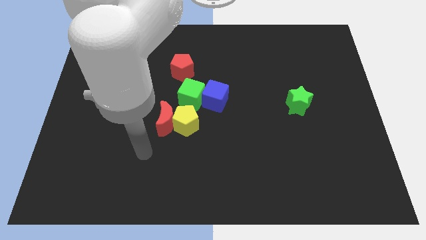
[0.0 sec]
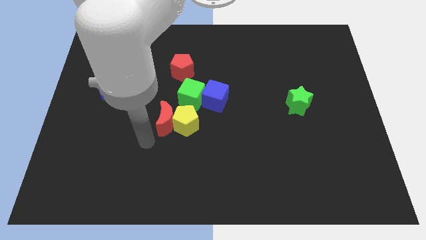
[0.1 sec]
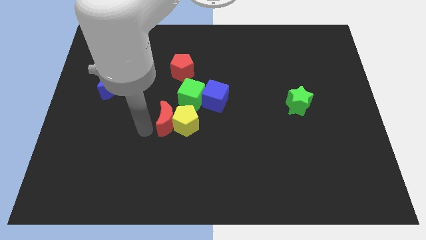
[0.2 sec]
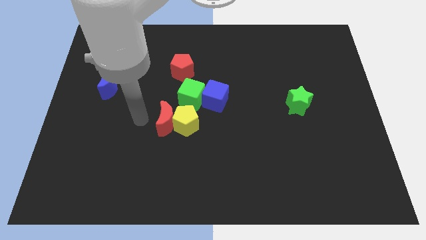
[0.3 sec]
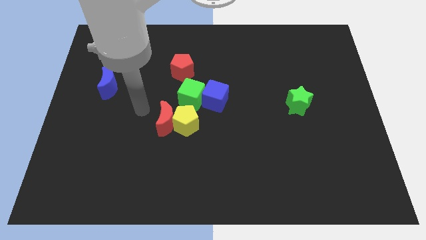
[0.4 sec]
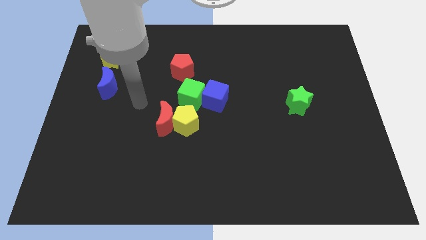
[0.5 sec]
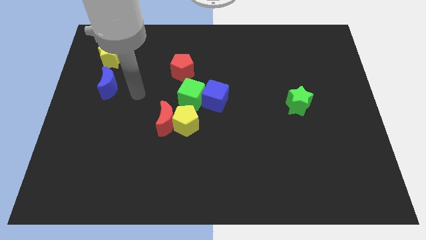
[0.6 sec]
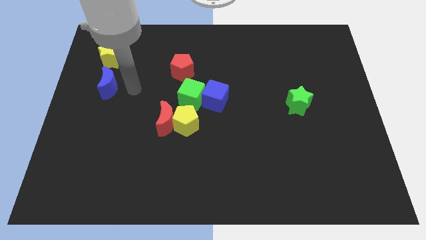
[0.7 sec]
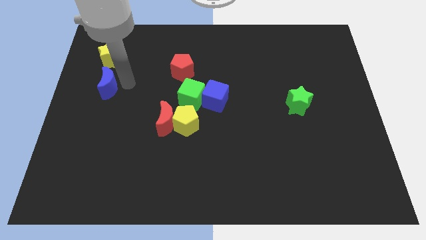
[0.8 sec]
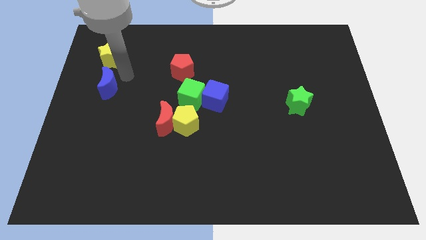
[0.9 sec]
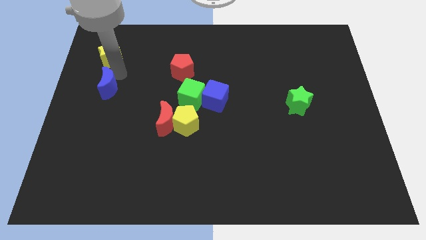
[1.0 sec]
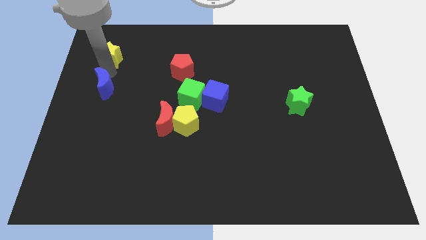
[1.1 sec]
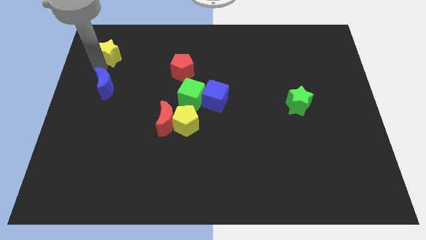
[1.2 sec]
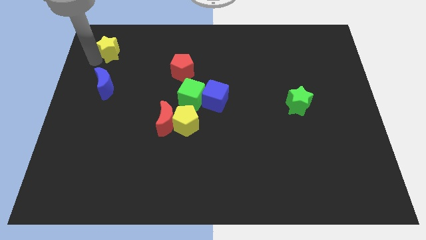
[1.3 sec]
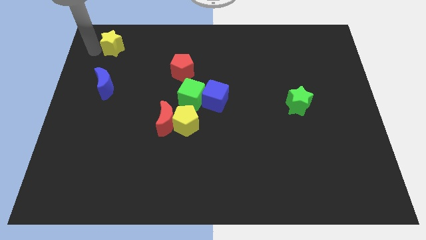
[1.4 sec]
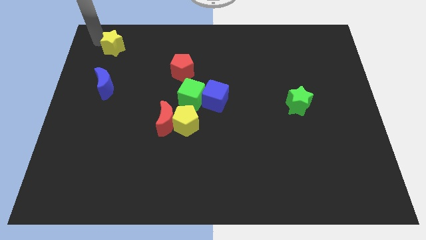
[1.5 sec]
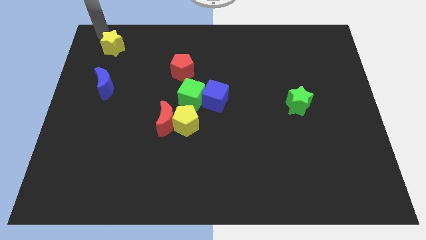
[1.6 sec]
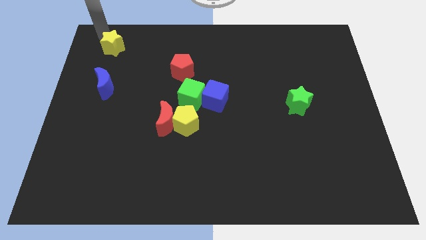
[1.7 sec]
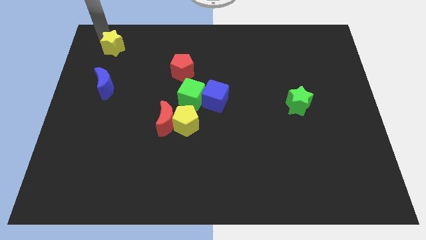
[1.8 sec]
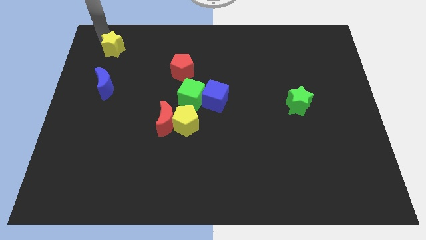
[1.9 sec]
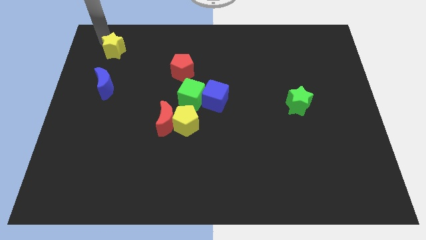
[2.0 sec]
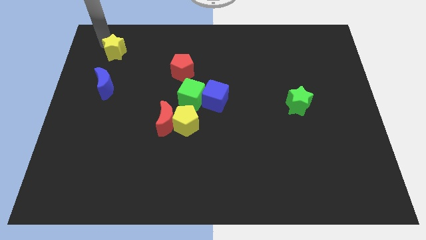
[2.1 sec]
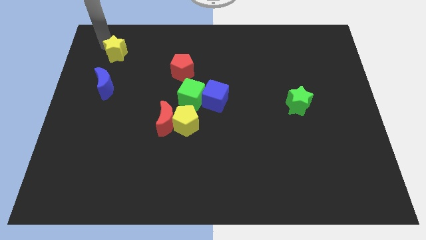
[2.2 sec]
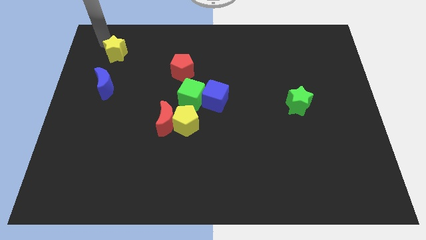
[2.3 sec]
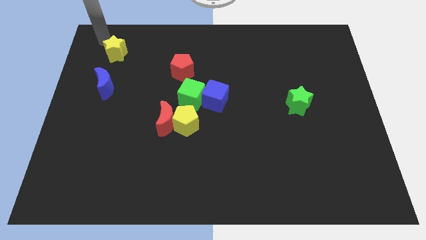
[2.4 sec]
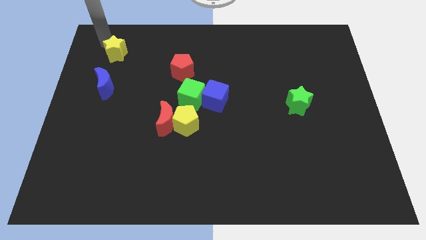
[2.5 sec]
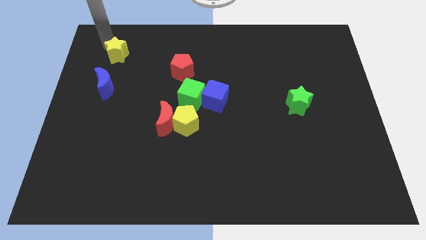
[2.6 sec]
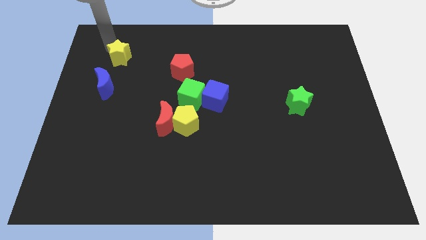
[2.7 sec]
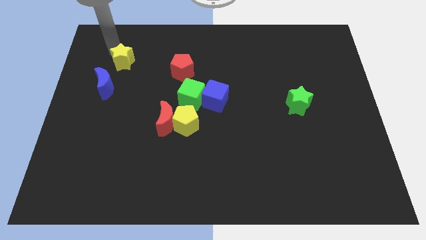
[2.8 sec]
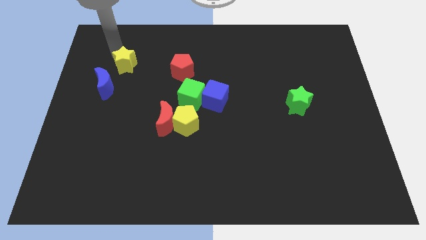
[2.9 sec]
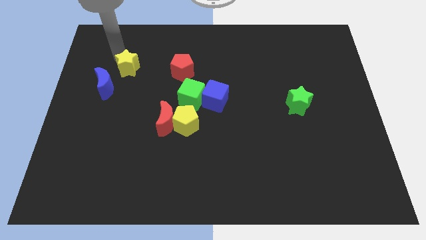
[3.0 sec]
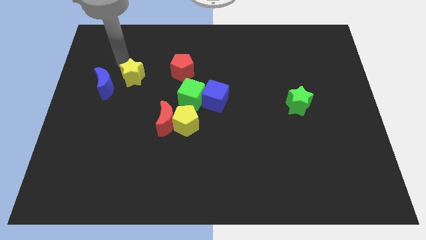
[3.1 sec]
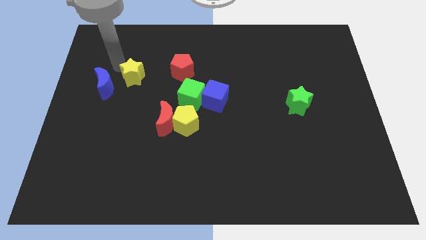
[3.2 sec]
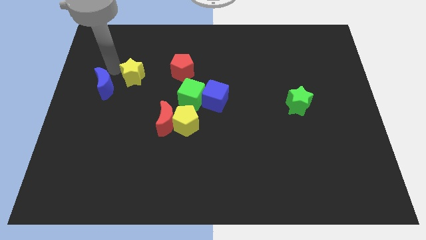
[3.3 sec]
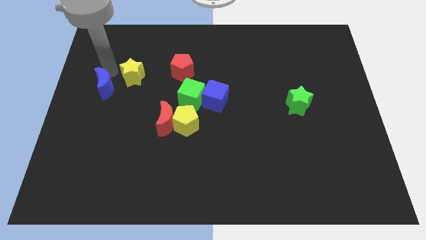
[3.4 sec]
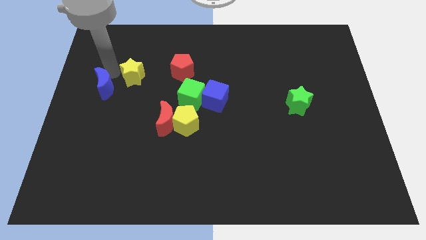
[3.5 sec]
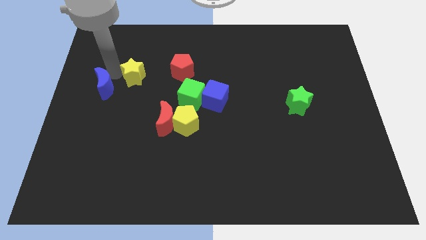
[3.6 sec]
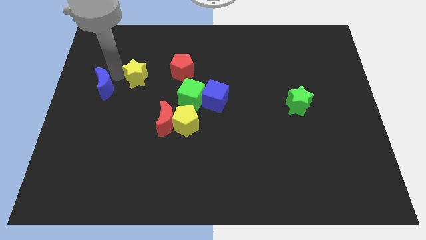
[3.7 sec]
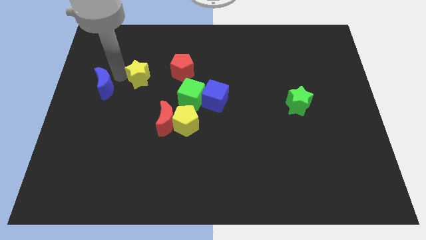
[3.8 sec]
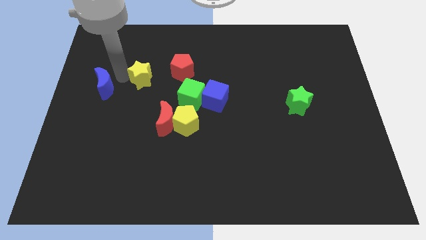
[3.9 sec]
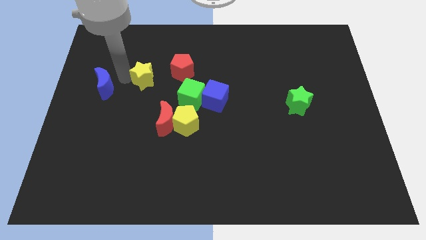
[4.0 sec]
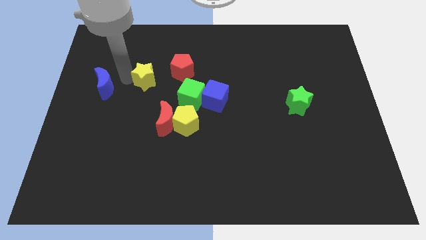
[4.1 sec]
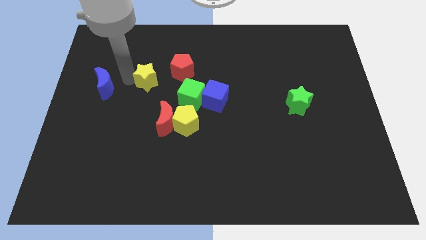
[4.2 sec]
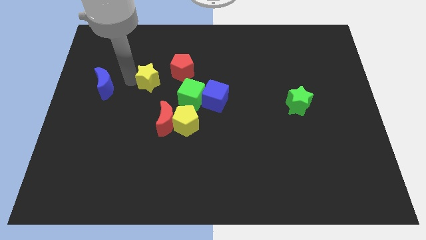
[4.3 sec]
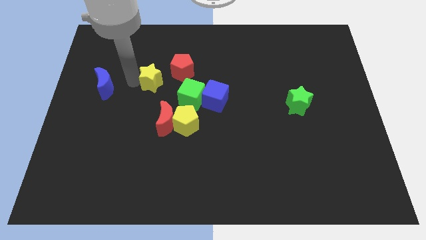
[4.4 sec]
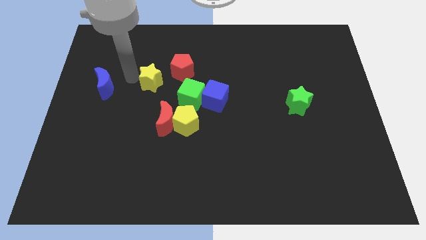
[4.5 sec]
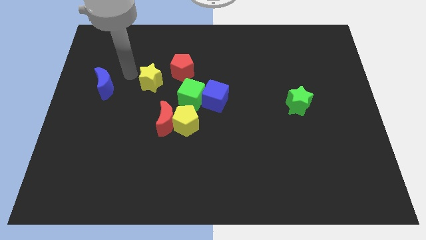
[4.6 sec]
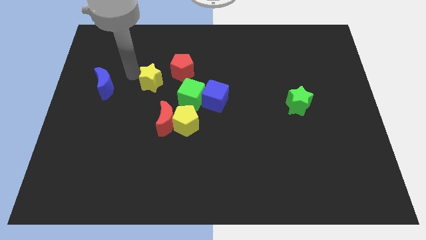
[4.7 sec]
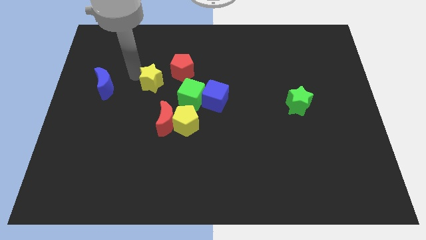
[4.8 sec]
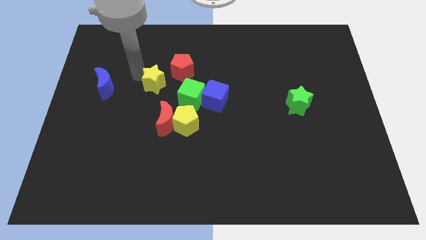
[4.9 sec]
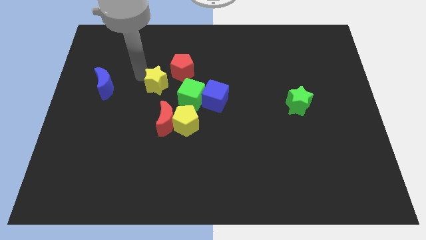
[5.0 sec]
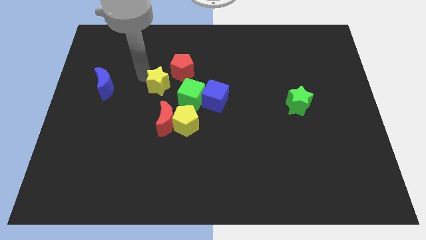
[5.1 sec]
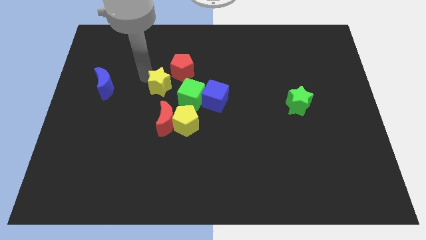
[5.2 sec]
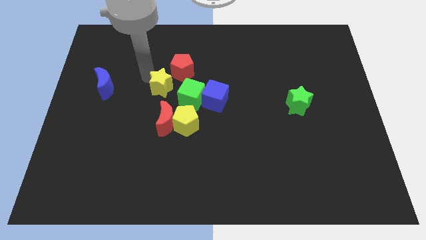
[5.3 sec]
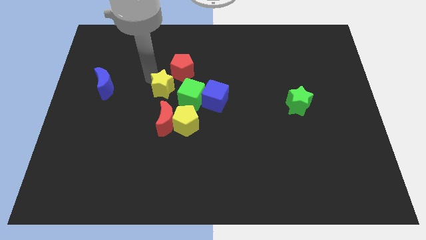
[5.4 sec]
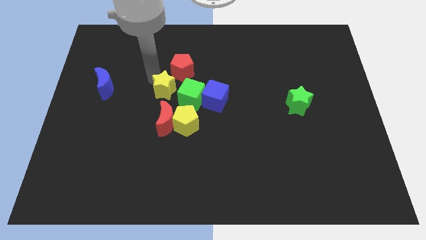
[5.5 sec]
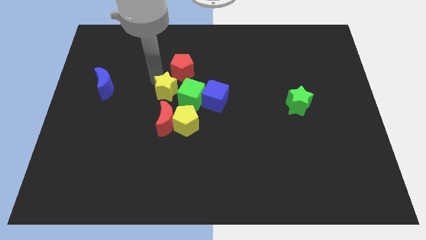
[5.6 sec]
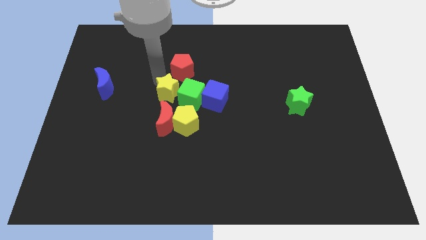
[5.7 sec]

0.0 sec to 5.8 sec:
slide the yellow star next to the green cube

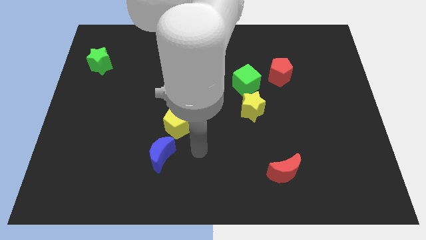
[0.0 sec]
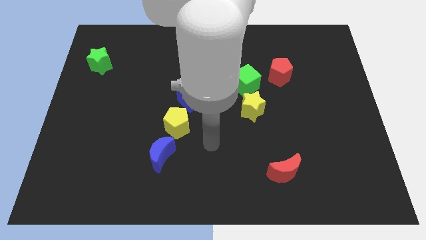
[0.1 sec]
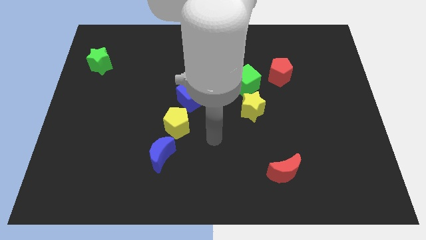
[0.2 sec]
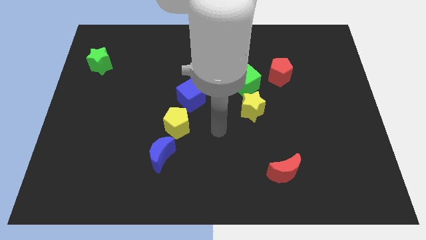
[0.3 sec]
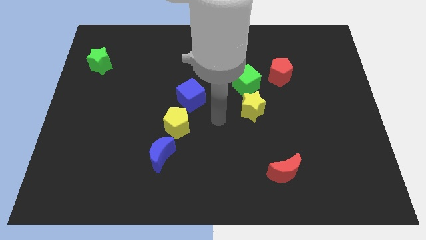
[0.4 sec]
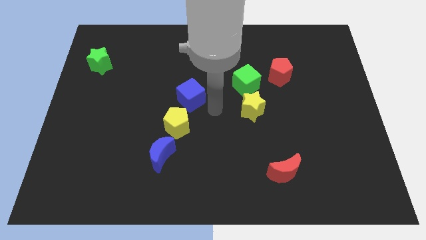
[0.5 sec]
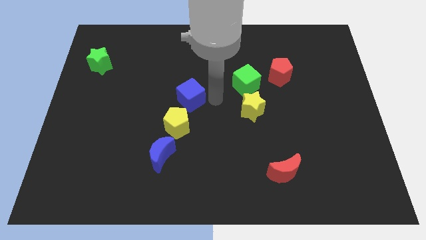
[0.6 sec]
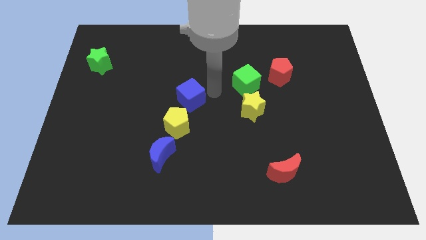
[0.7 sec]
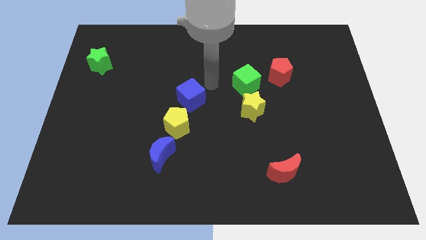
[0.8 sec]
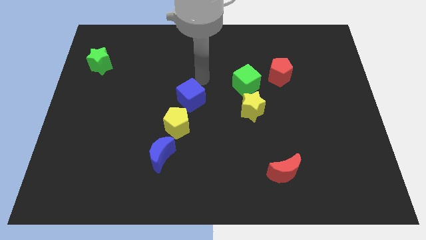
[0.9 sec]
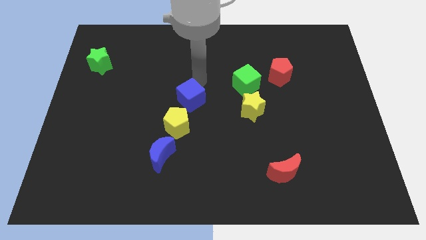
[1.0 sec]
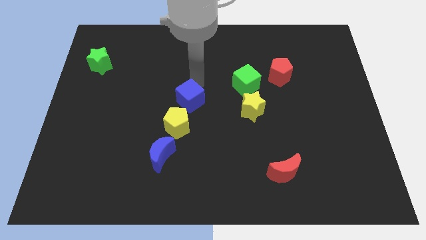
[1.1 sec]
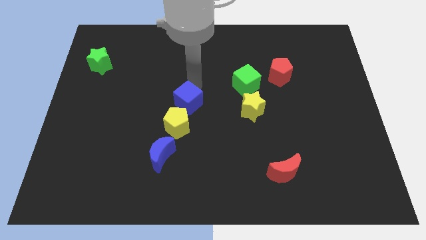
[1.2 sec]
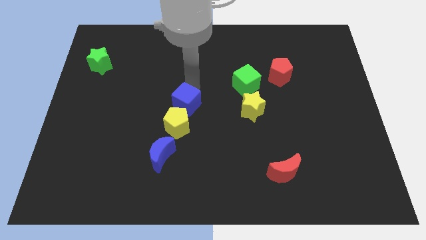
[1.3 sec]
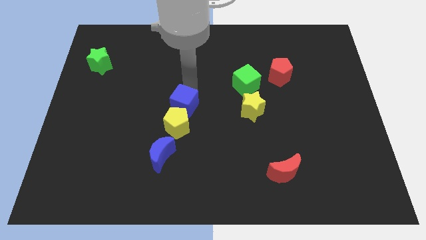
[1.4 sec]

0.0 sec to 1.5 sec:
move the blue cube to the yellow pentagon
